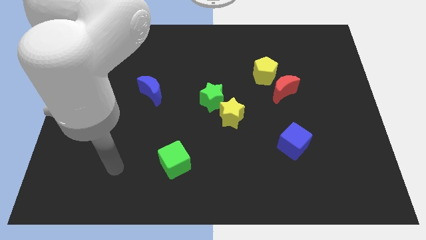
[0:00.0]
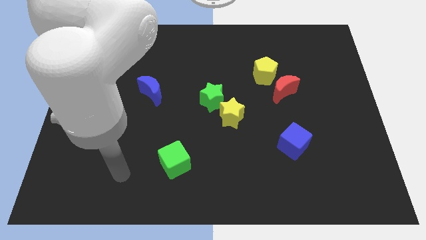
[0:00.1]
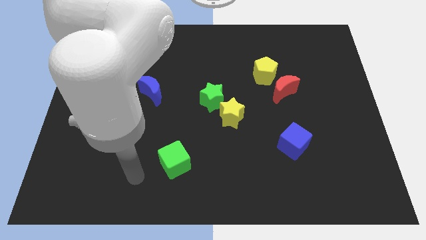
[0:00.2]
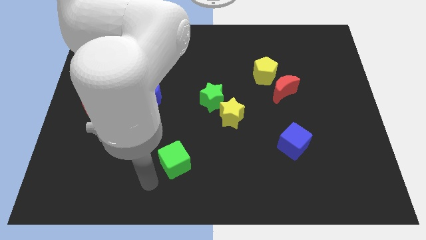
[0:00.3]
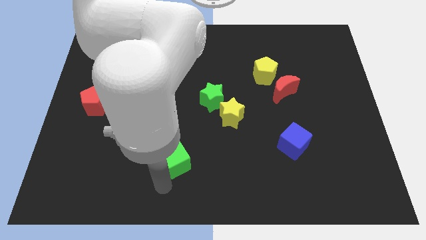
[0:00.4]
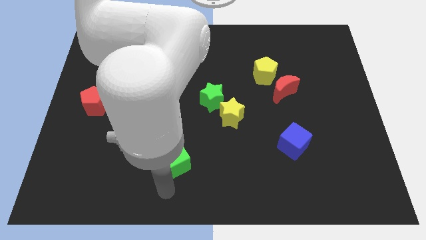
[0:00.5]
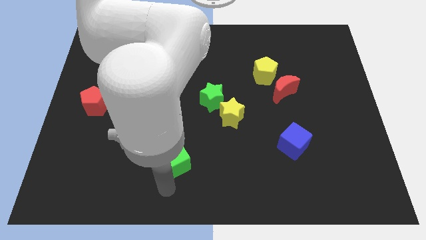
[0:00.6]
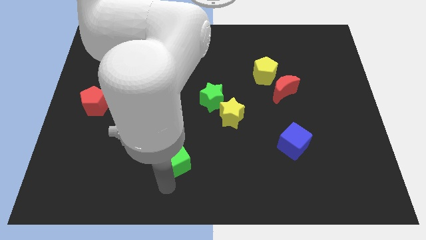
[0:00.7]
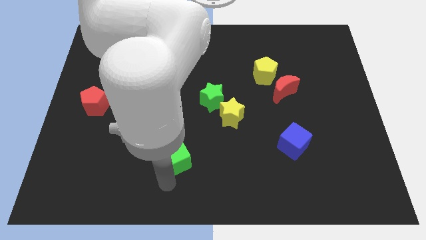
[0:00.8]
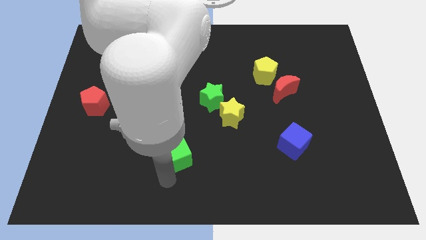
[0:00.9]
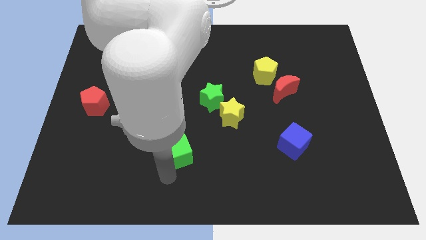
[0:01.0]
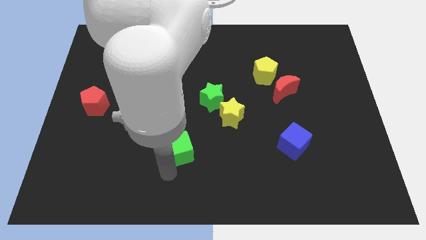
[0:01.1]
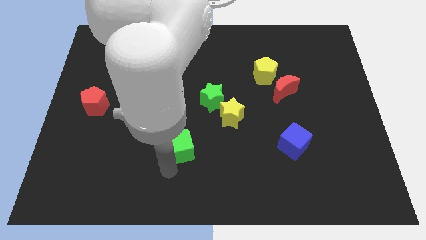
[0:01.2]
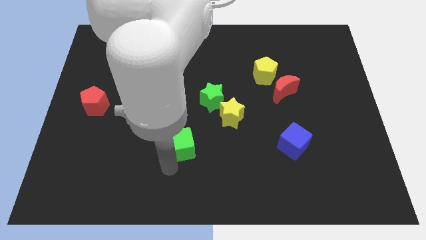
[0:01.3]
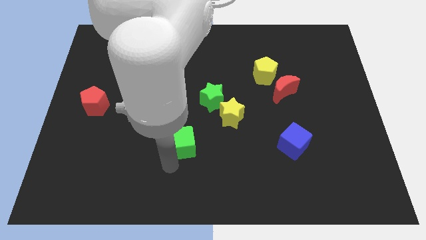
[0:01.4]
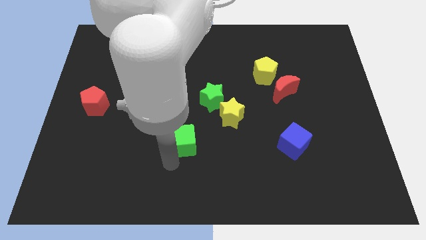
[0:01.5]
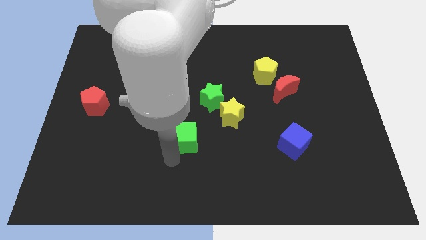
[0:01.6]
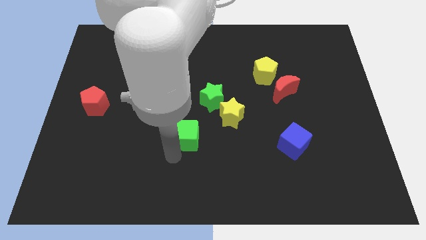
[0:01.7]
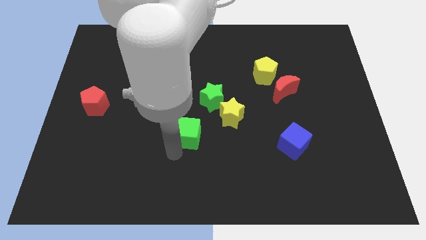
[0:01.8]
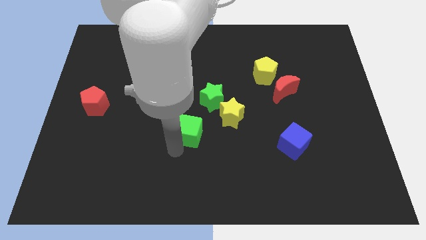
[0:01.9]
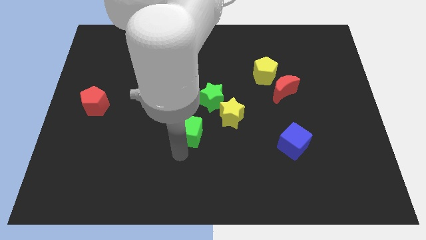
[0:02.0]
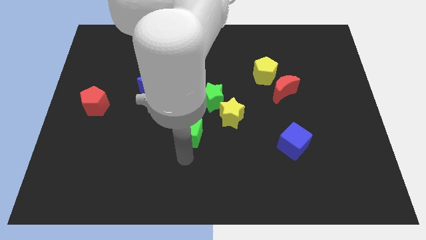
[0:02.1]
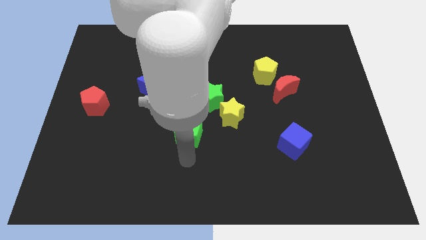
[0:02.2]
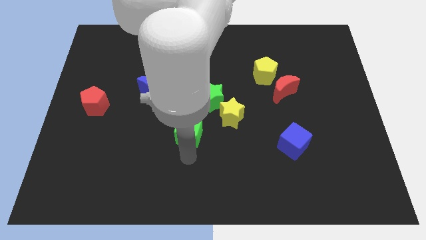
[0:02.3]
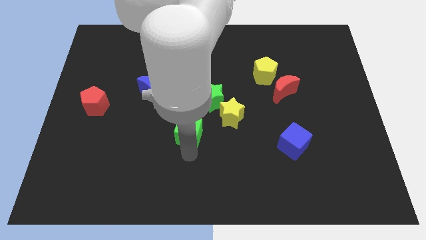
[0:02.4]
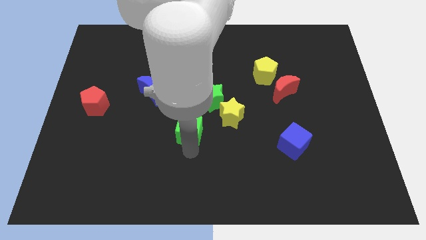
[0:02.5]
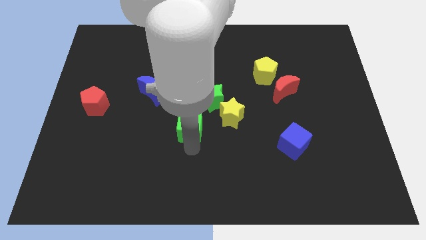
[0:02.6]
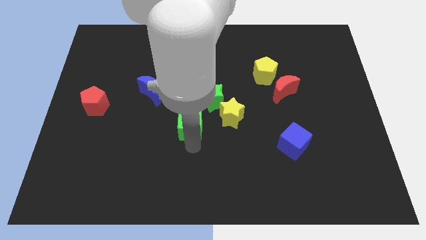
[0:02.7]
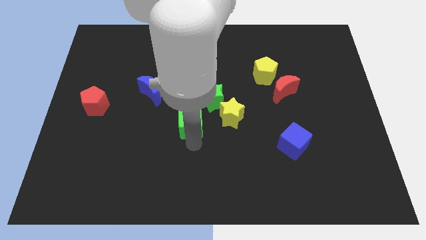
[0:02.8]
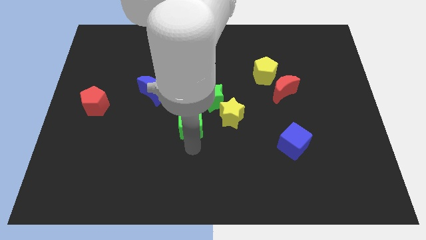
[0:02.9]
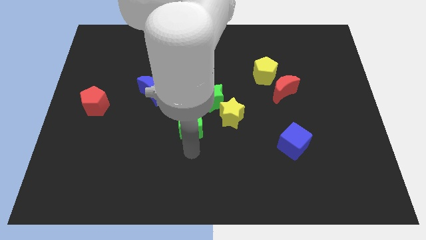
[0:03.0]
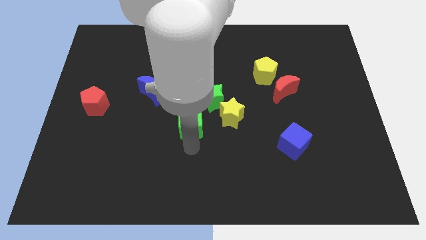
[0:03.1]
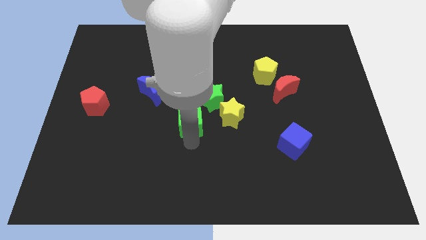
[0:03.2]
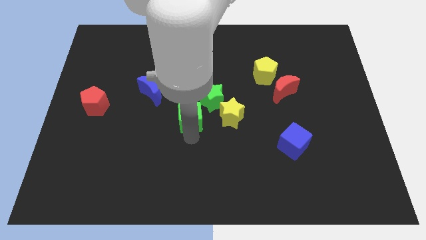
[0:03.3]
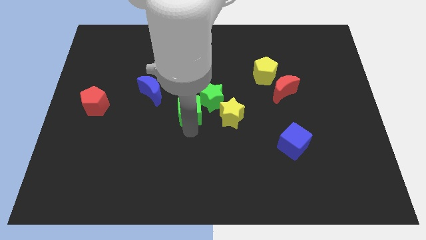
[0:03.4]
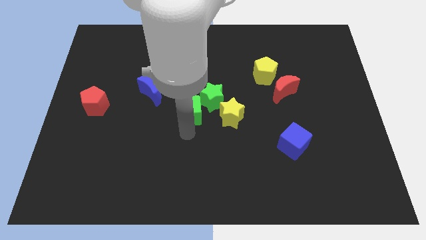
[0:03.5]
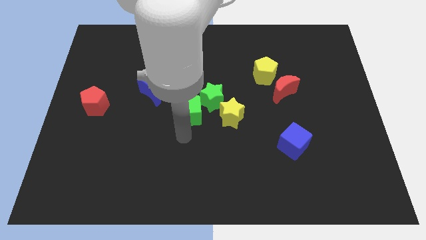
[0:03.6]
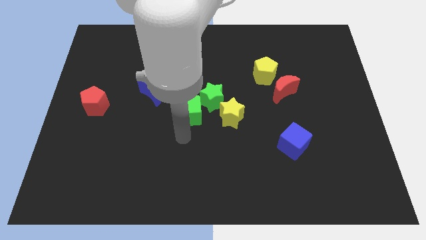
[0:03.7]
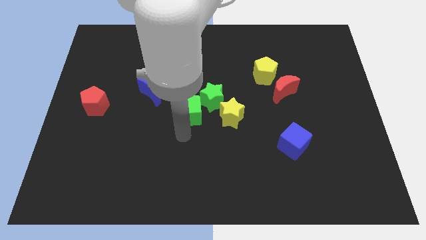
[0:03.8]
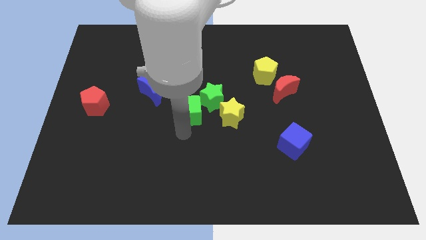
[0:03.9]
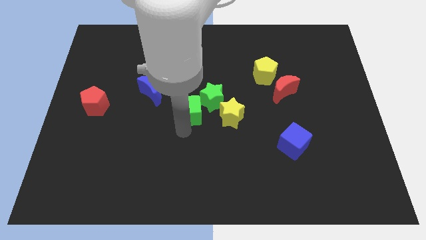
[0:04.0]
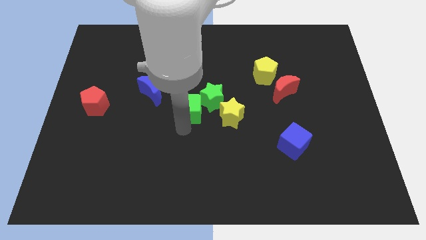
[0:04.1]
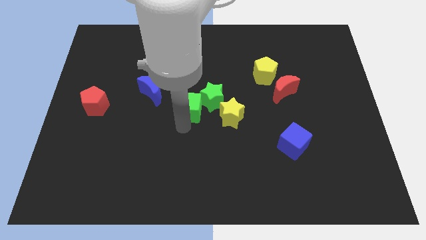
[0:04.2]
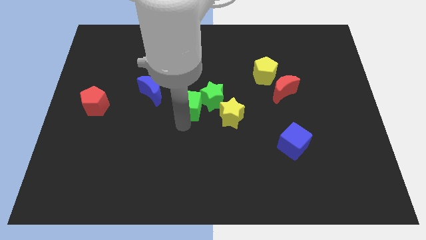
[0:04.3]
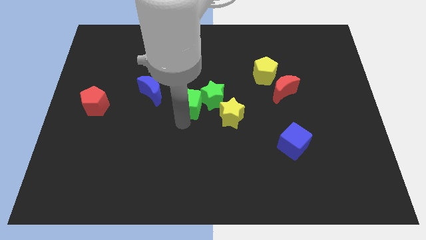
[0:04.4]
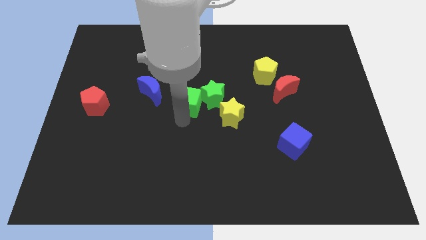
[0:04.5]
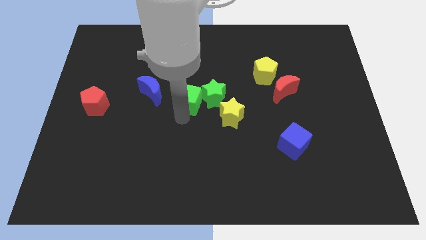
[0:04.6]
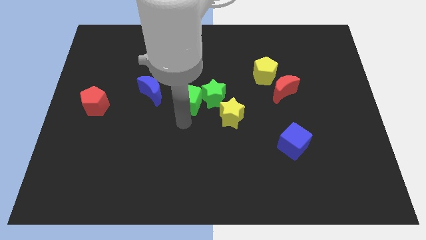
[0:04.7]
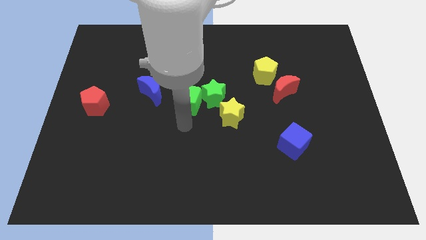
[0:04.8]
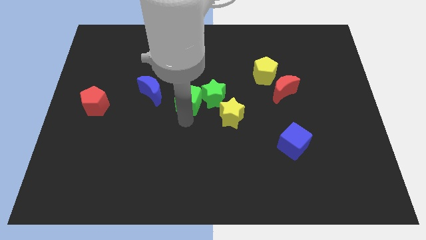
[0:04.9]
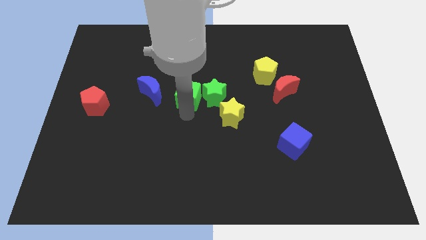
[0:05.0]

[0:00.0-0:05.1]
move the green cube to the top left of the green star

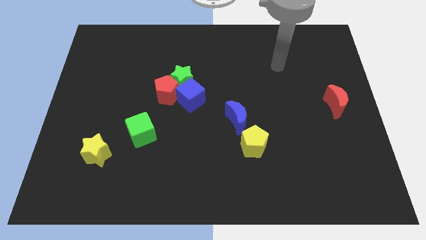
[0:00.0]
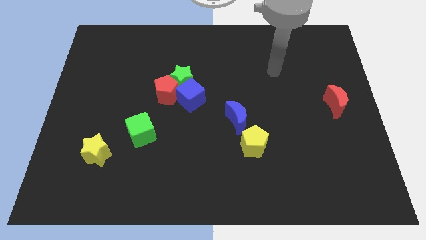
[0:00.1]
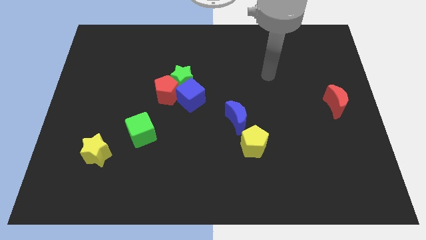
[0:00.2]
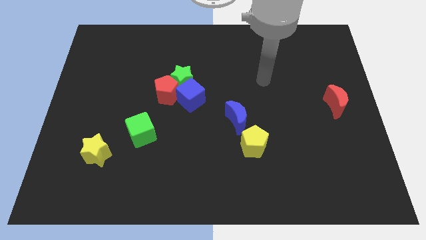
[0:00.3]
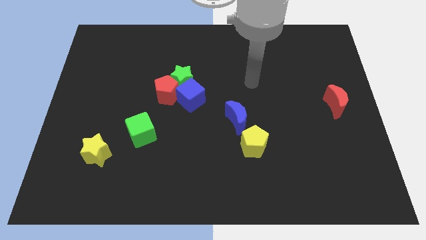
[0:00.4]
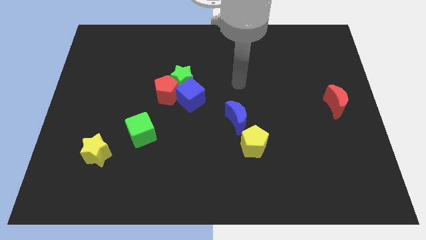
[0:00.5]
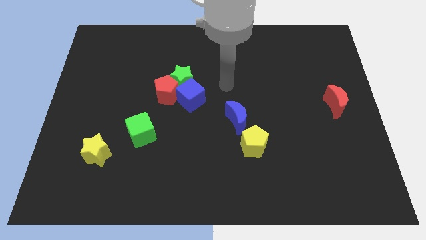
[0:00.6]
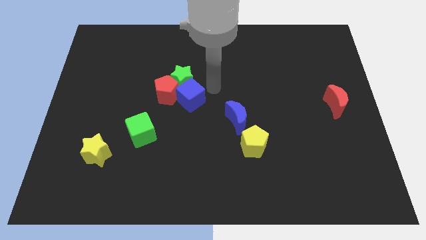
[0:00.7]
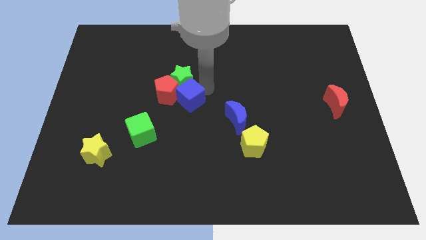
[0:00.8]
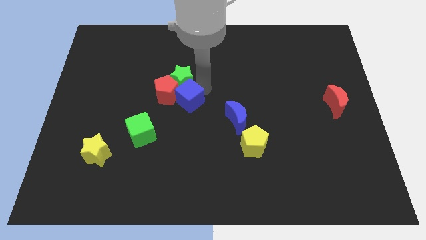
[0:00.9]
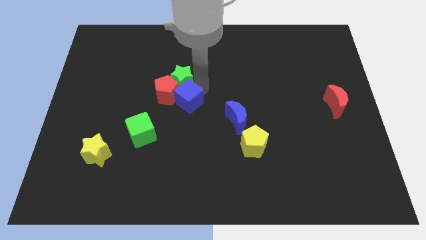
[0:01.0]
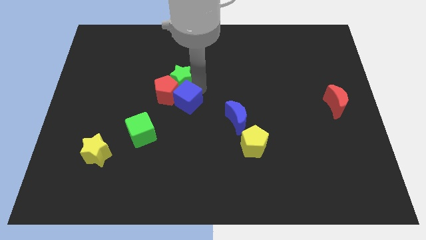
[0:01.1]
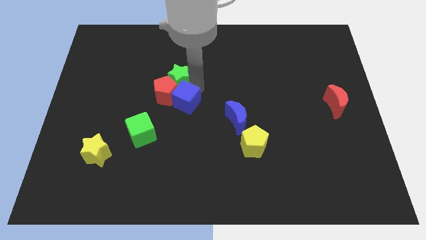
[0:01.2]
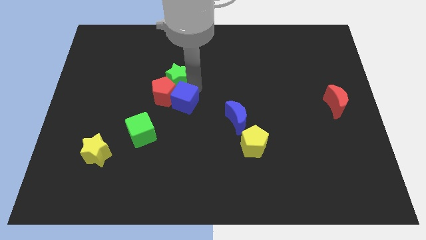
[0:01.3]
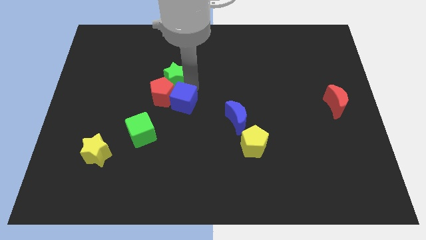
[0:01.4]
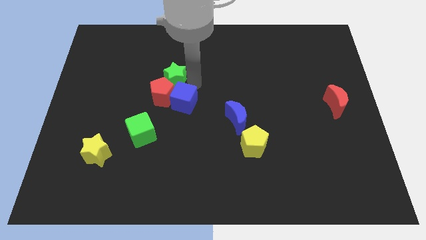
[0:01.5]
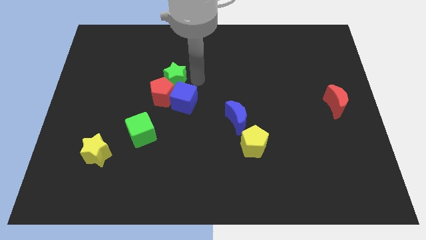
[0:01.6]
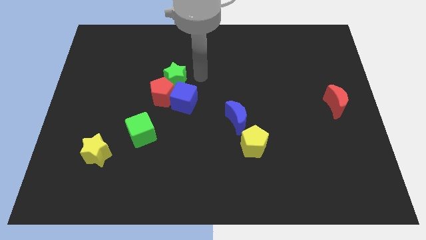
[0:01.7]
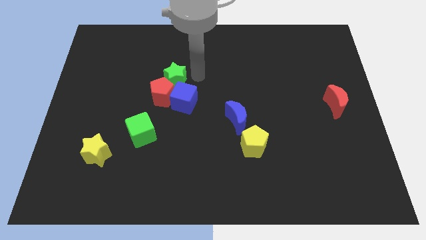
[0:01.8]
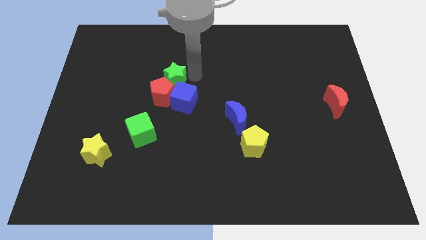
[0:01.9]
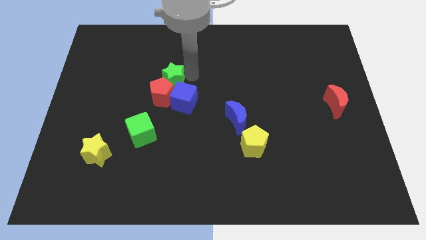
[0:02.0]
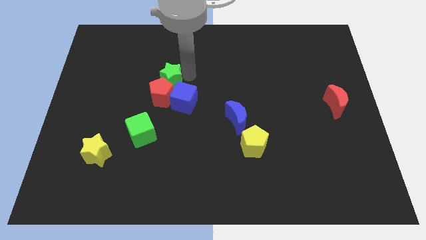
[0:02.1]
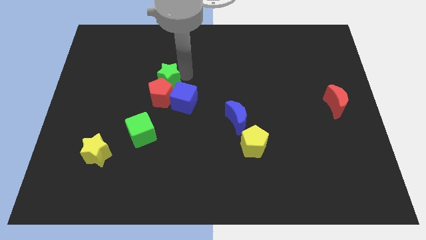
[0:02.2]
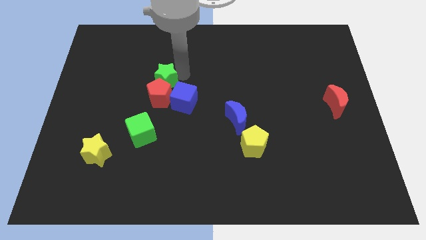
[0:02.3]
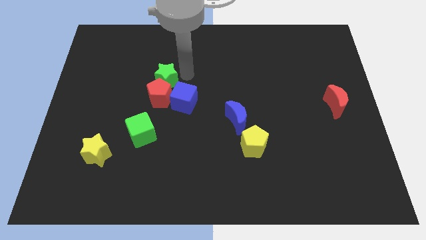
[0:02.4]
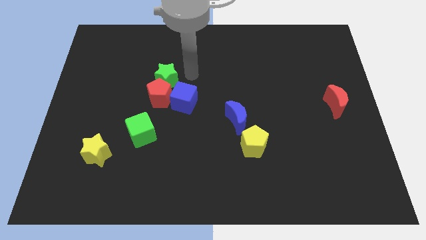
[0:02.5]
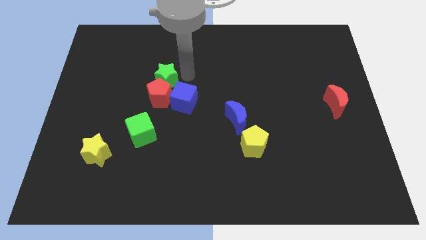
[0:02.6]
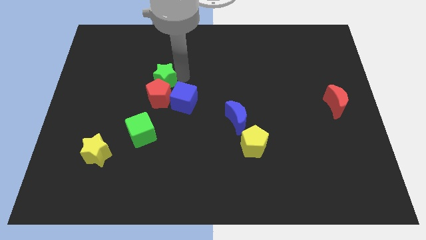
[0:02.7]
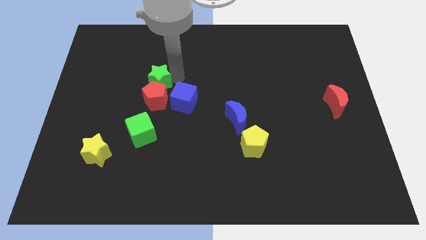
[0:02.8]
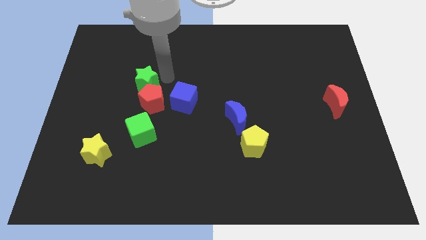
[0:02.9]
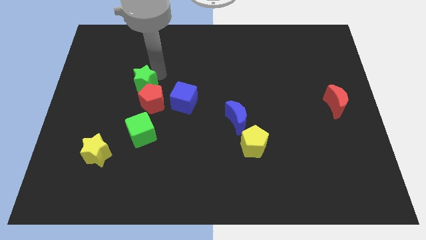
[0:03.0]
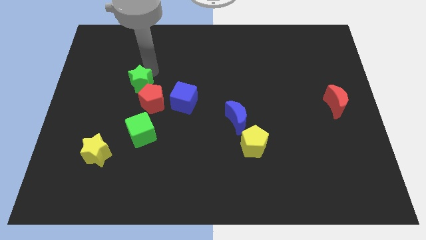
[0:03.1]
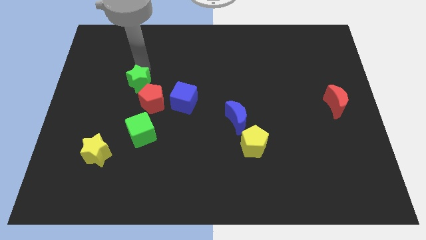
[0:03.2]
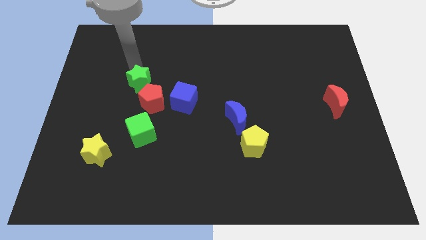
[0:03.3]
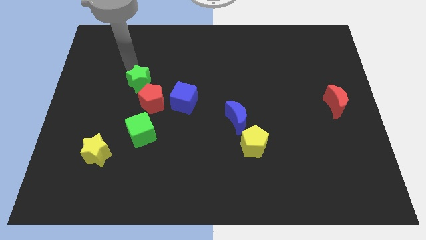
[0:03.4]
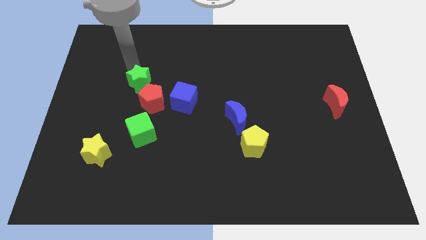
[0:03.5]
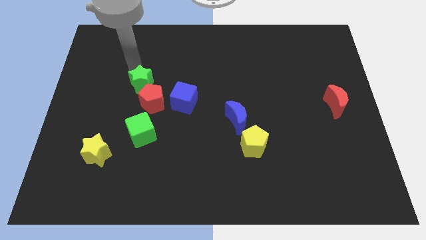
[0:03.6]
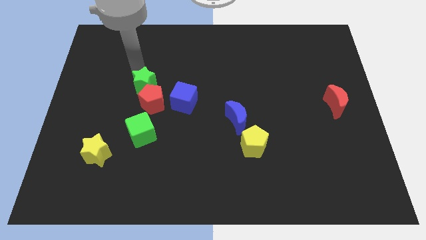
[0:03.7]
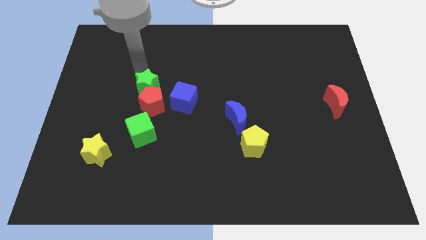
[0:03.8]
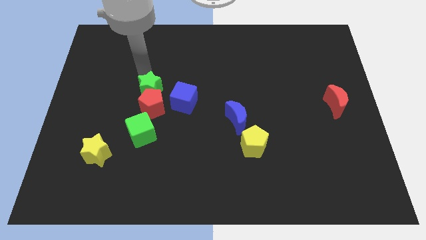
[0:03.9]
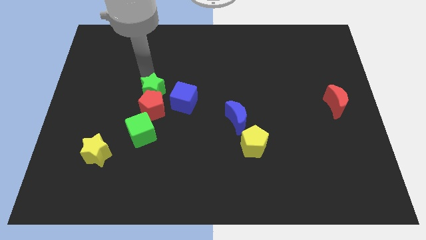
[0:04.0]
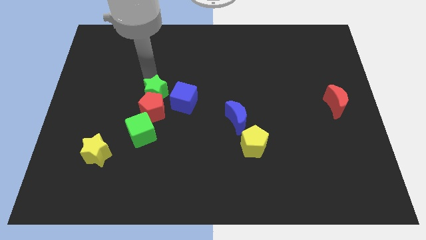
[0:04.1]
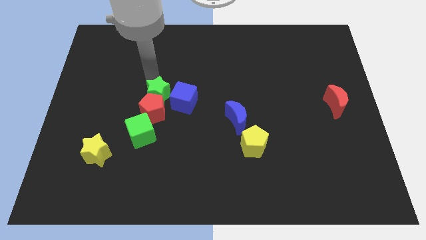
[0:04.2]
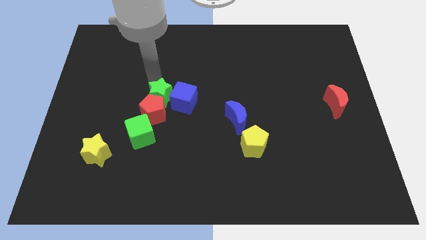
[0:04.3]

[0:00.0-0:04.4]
push the green star to the bottom left of the blue cube
